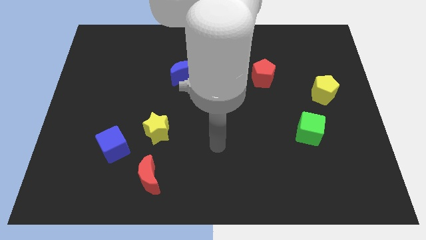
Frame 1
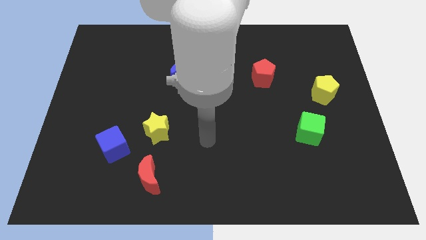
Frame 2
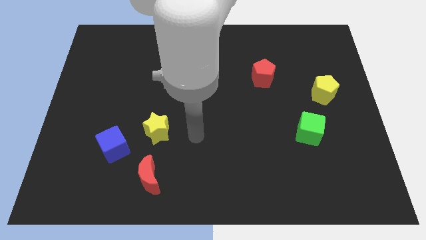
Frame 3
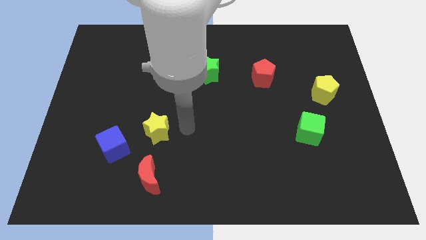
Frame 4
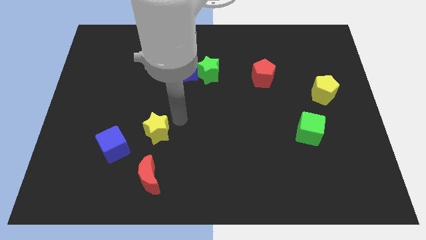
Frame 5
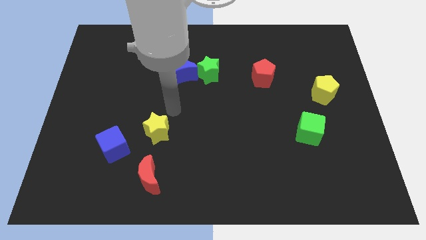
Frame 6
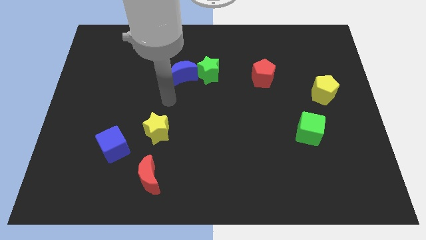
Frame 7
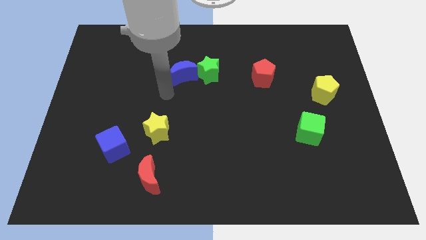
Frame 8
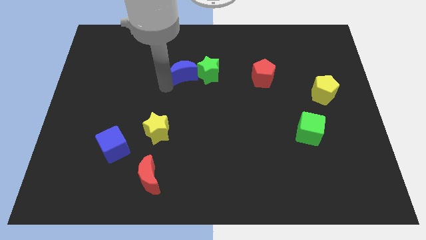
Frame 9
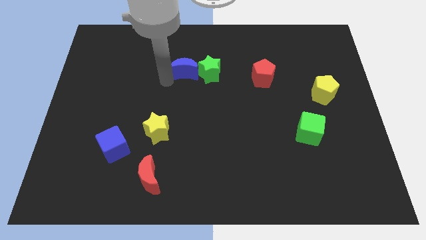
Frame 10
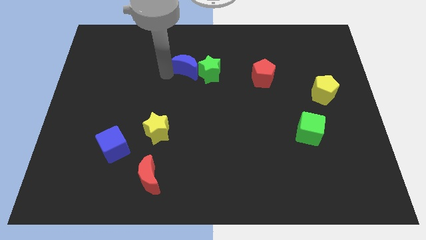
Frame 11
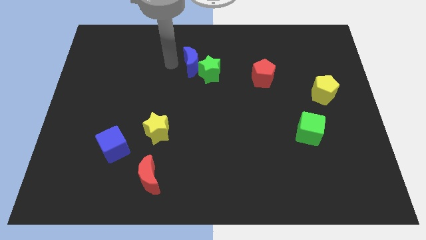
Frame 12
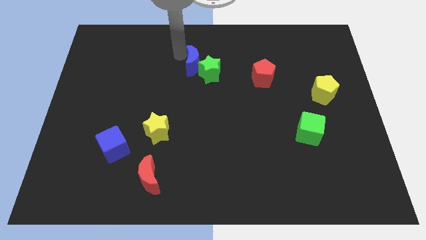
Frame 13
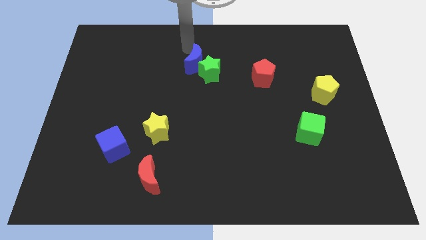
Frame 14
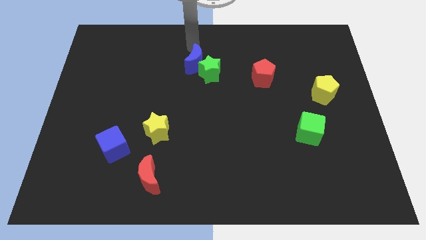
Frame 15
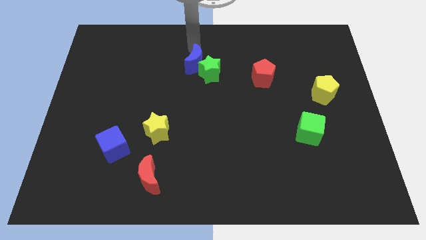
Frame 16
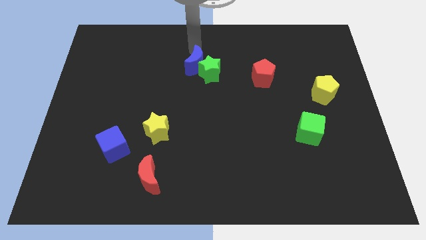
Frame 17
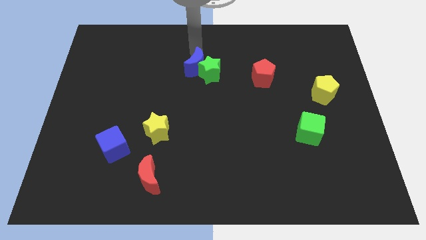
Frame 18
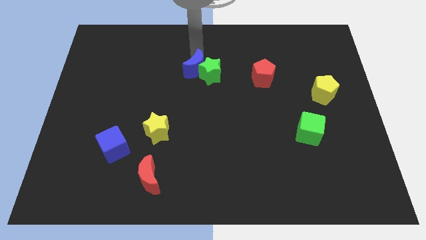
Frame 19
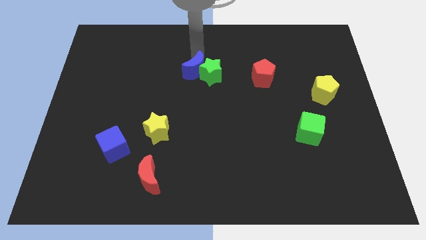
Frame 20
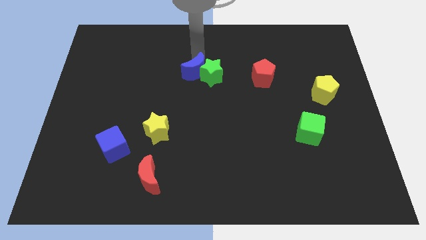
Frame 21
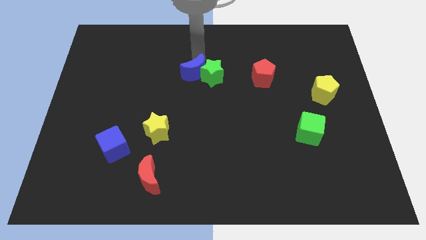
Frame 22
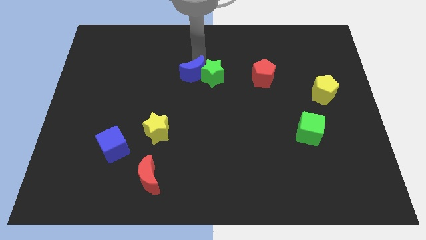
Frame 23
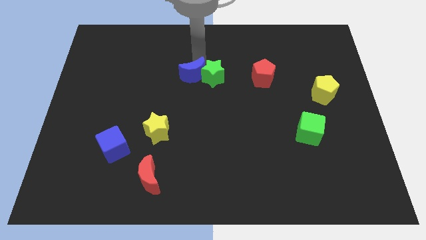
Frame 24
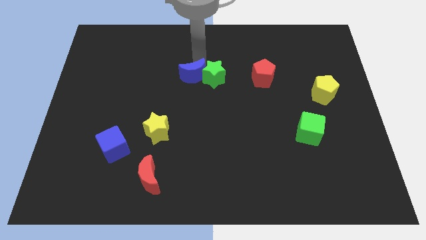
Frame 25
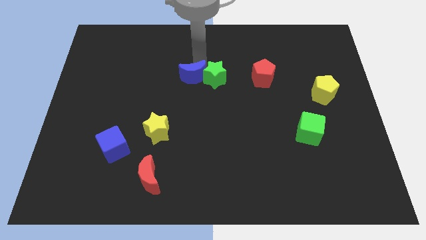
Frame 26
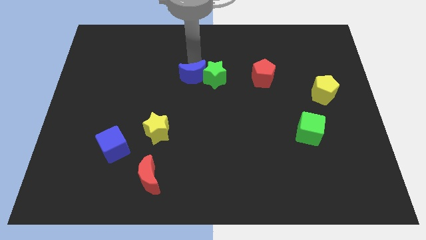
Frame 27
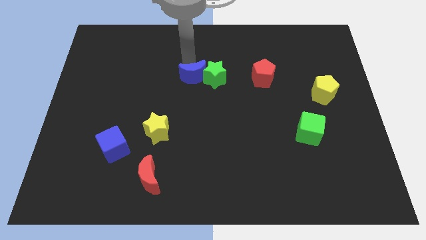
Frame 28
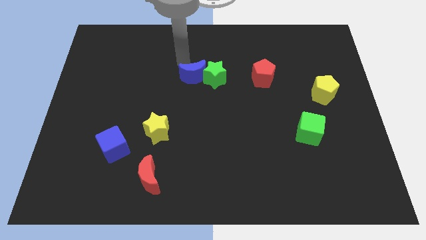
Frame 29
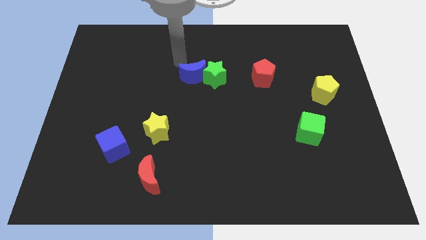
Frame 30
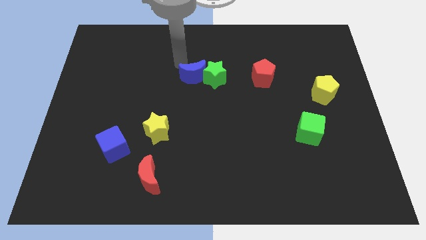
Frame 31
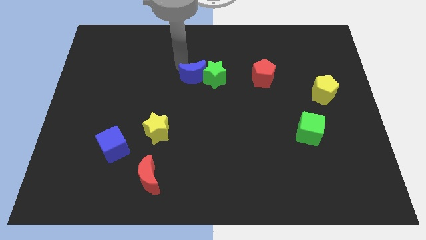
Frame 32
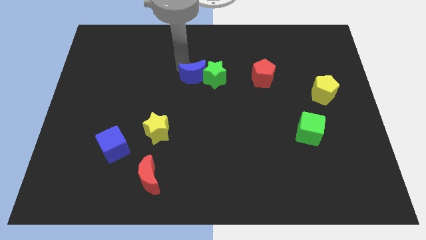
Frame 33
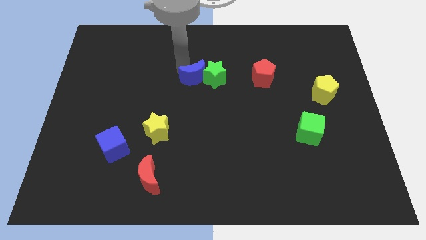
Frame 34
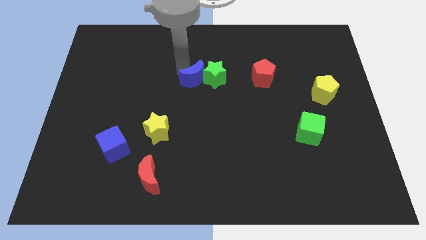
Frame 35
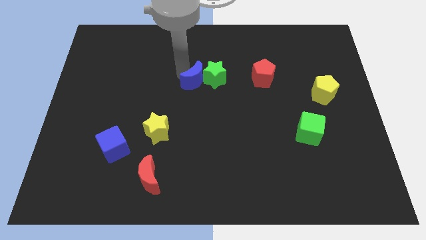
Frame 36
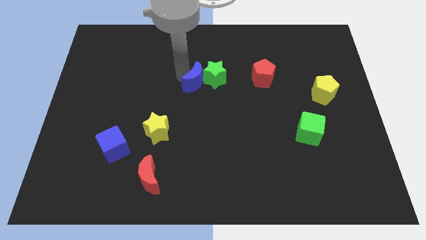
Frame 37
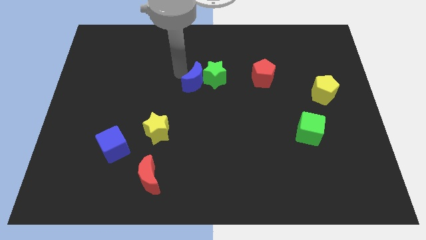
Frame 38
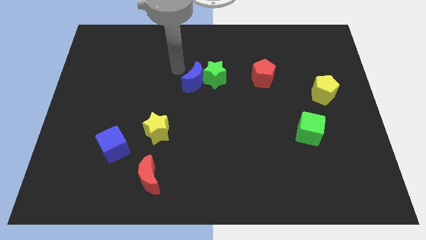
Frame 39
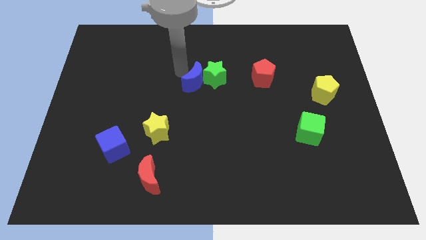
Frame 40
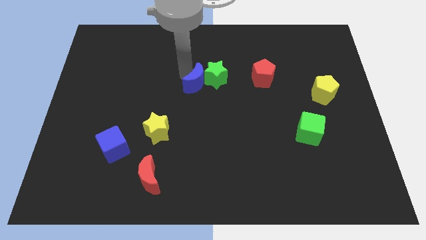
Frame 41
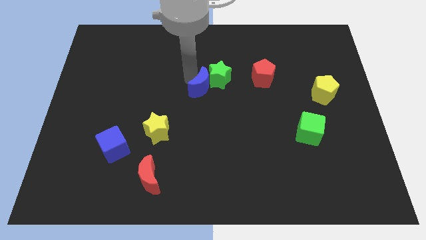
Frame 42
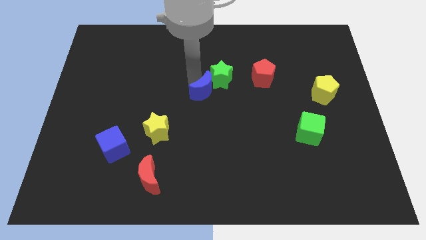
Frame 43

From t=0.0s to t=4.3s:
slightly push the blue moon downwards and right

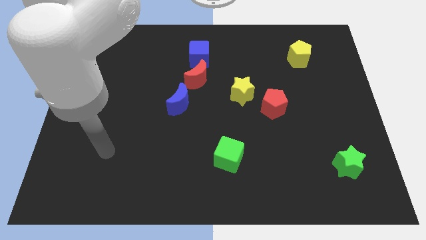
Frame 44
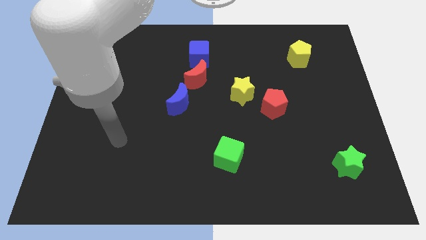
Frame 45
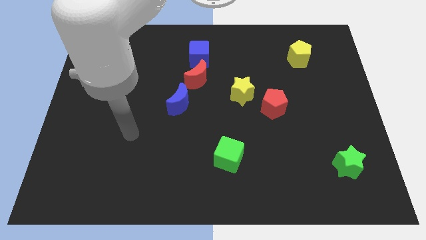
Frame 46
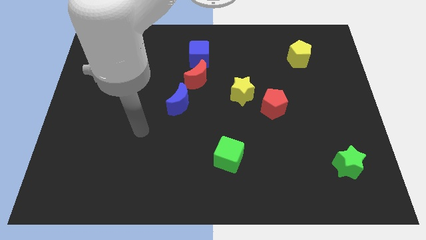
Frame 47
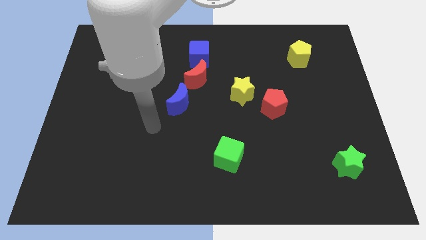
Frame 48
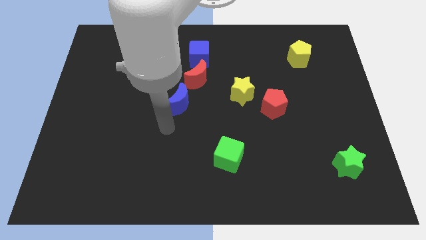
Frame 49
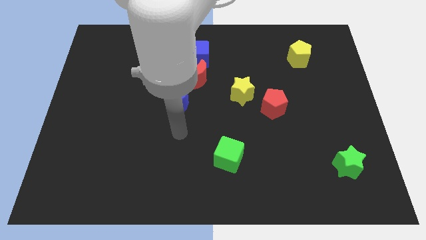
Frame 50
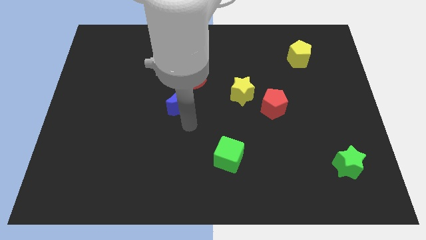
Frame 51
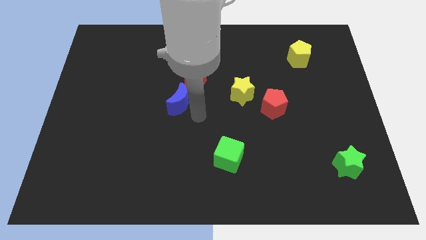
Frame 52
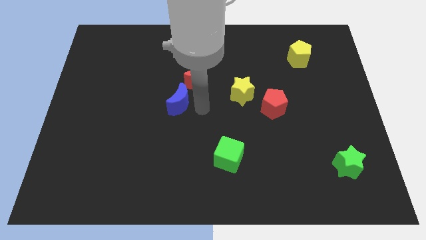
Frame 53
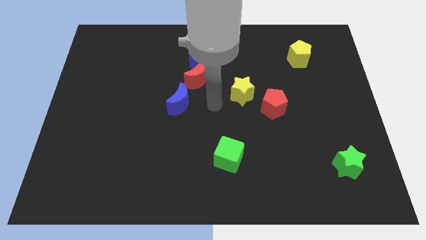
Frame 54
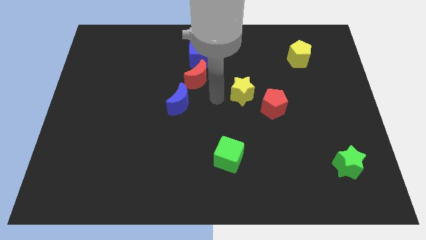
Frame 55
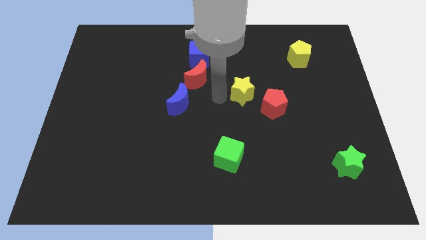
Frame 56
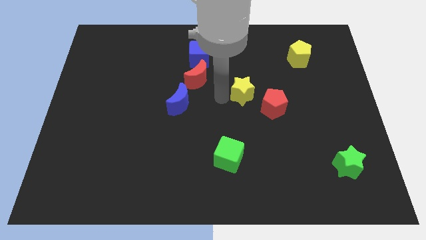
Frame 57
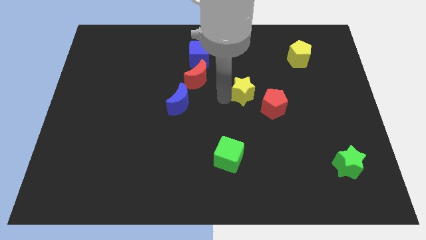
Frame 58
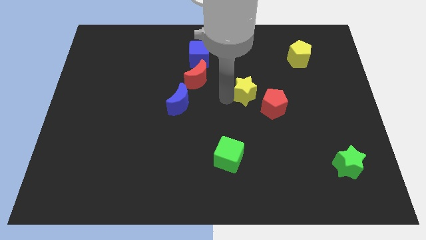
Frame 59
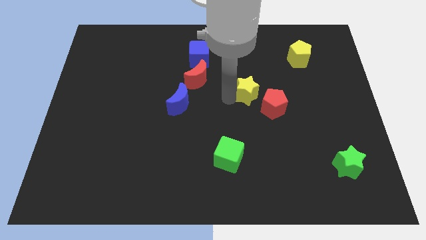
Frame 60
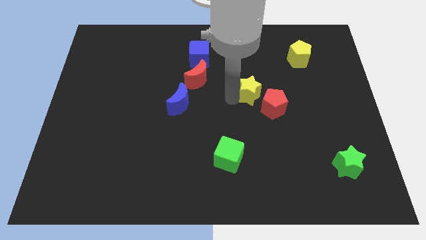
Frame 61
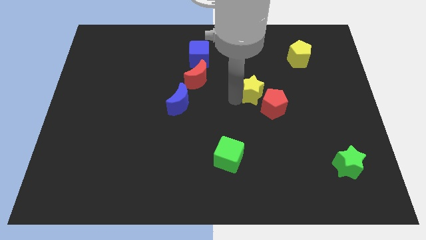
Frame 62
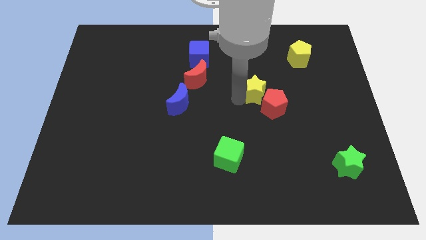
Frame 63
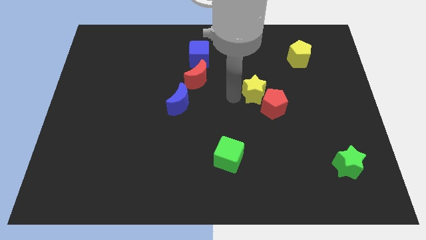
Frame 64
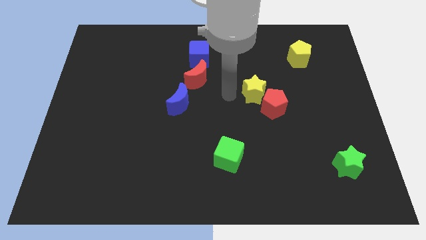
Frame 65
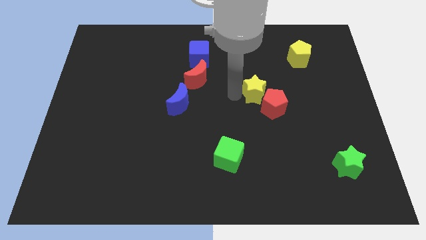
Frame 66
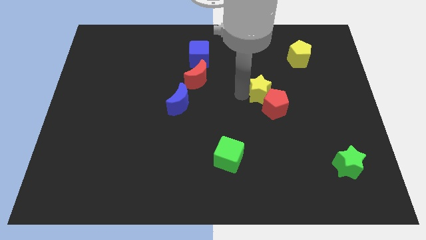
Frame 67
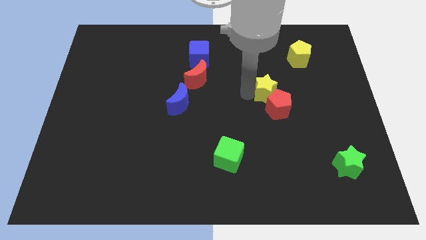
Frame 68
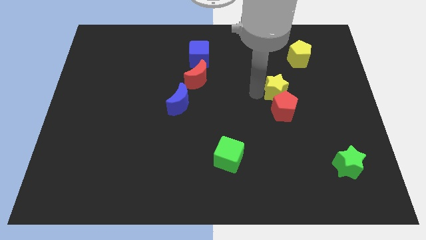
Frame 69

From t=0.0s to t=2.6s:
slide the yellow star to the right slightly

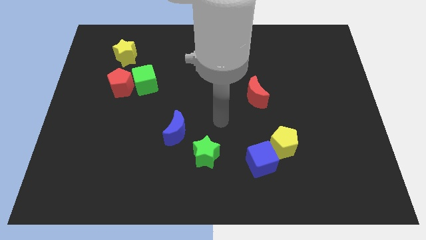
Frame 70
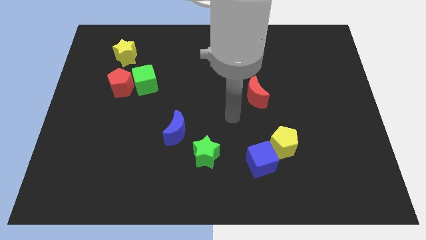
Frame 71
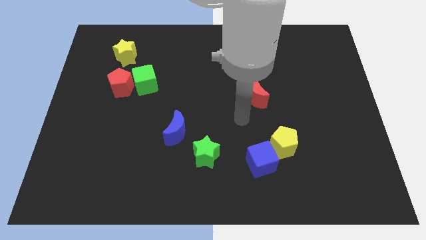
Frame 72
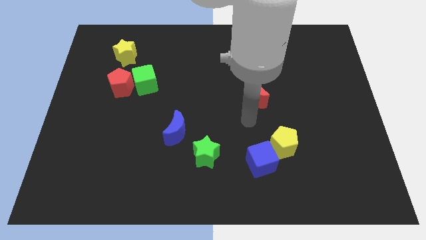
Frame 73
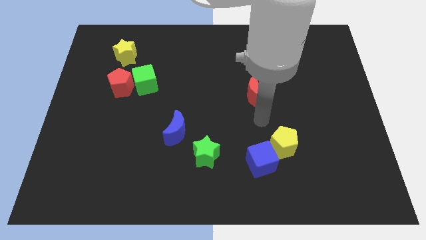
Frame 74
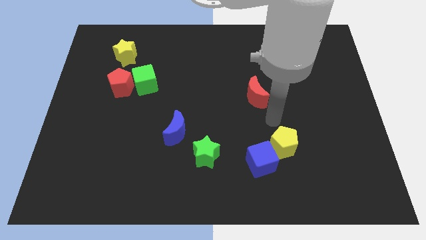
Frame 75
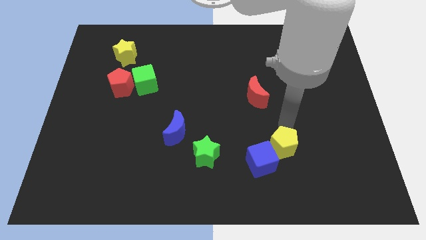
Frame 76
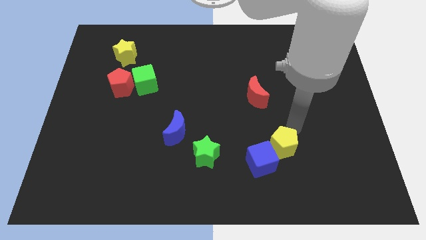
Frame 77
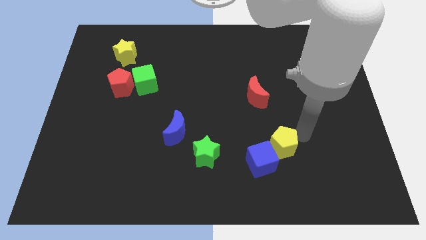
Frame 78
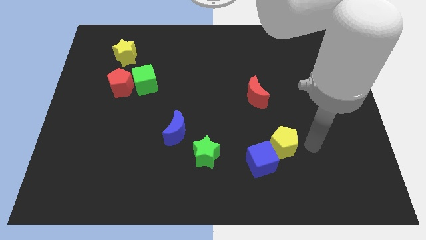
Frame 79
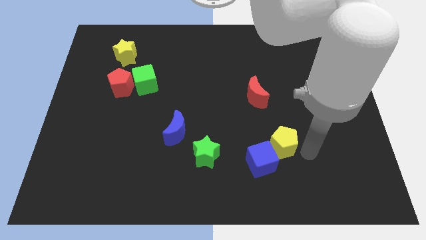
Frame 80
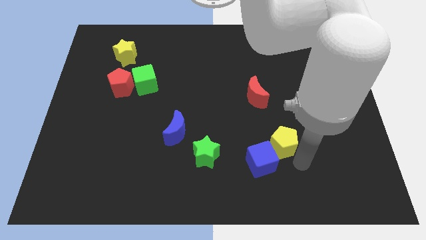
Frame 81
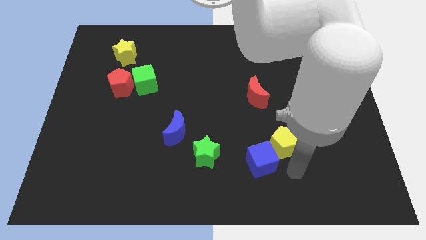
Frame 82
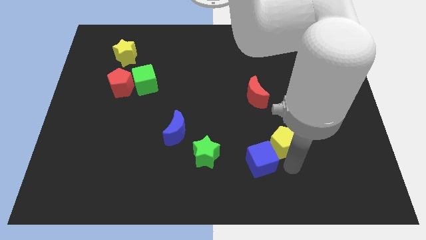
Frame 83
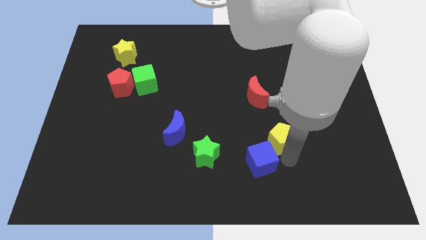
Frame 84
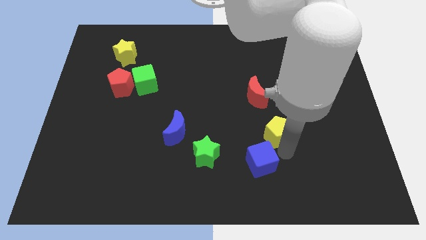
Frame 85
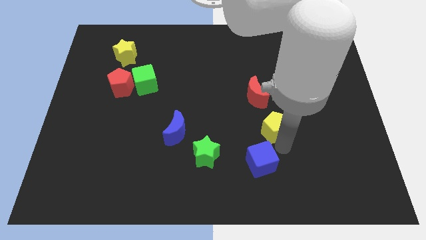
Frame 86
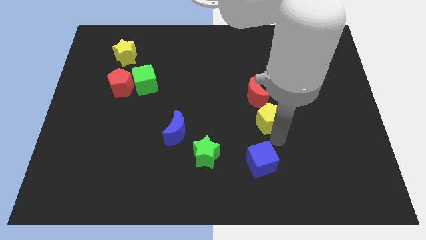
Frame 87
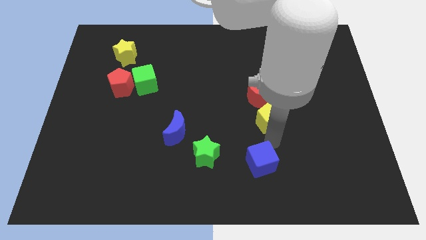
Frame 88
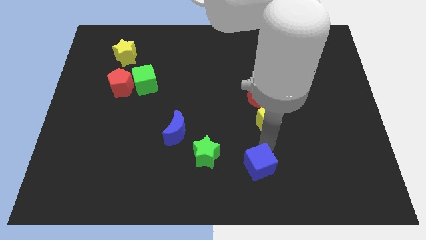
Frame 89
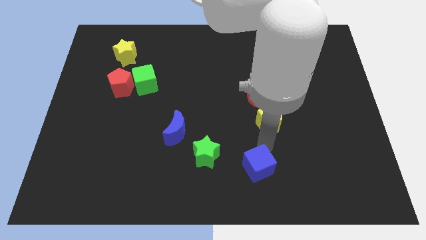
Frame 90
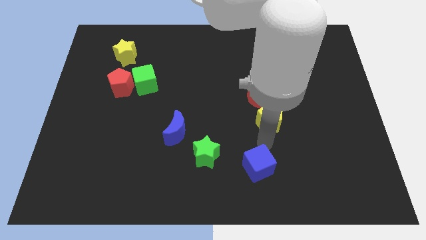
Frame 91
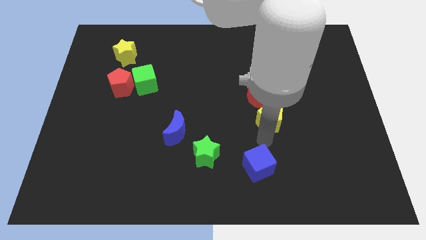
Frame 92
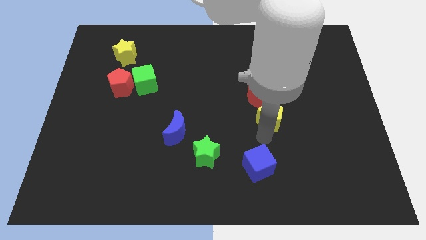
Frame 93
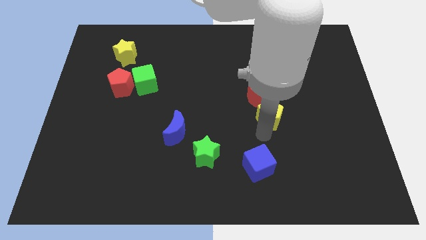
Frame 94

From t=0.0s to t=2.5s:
move the yellow pentagon somewhat up
